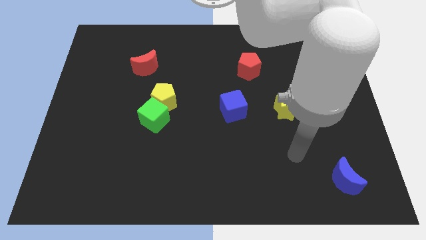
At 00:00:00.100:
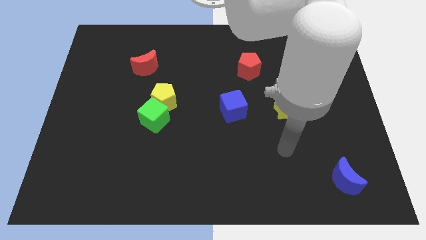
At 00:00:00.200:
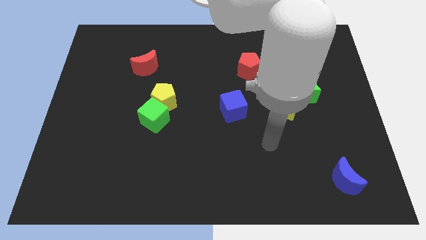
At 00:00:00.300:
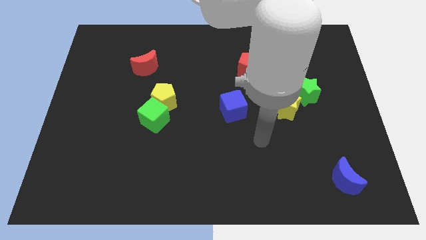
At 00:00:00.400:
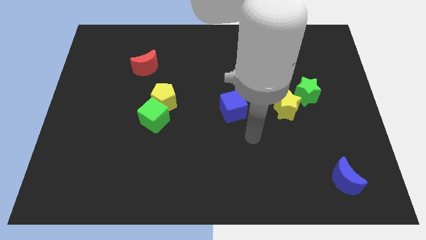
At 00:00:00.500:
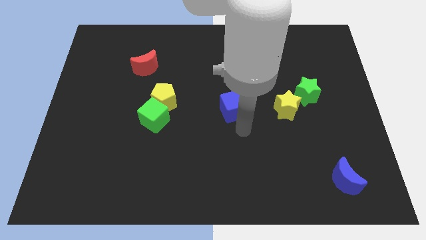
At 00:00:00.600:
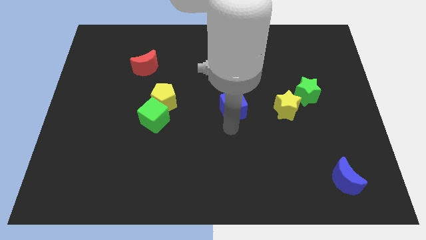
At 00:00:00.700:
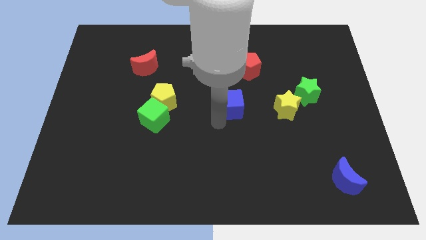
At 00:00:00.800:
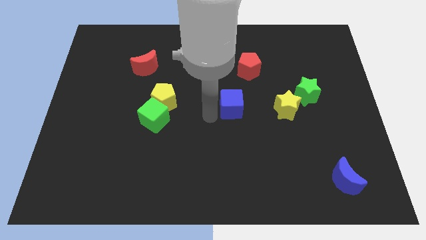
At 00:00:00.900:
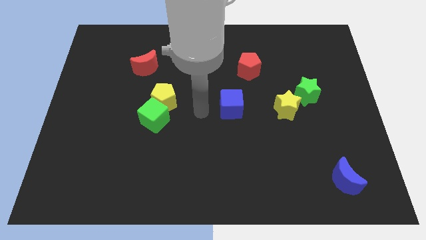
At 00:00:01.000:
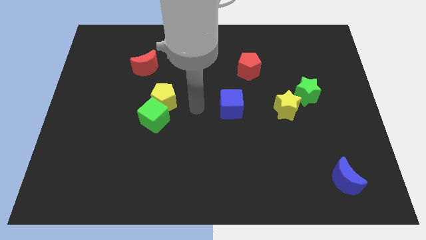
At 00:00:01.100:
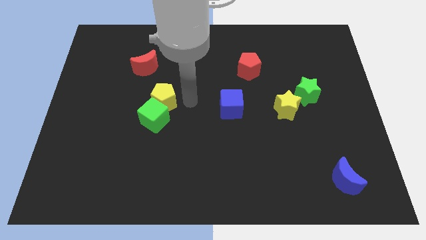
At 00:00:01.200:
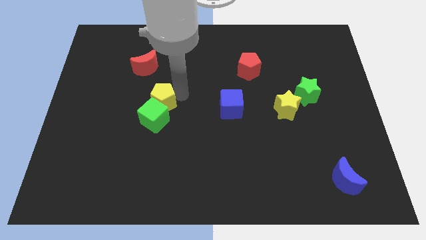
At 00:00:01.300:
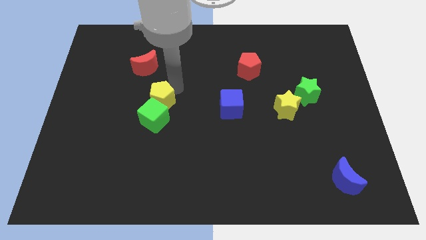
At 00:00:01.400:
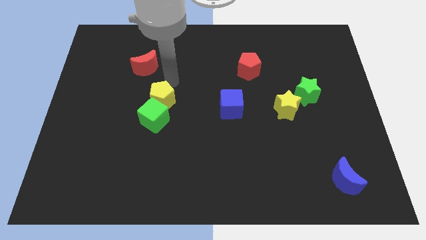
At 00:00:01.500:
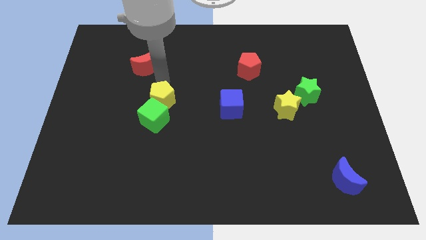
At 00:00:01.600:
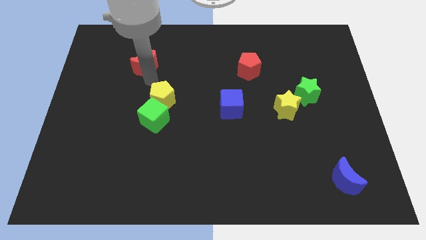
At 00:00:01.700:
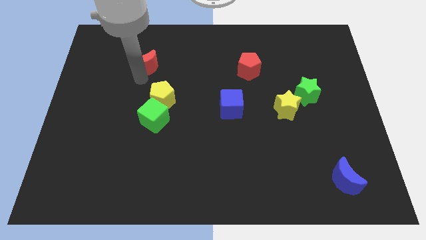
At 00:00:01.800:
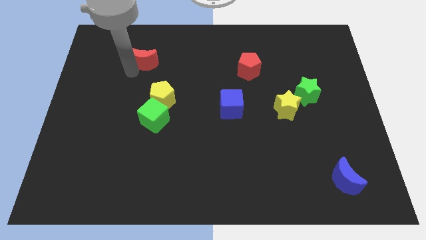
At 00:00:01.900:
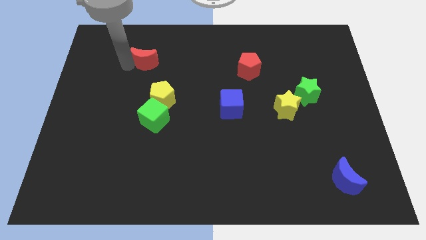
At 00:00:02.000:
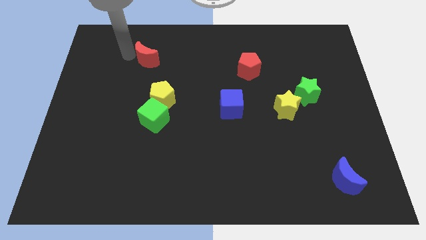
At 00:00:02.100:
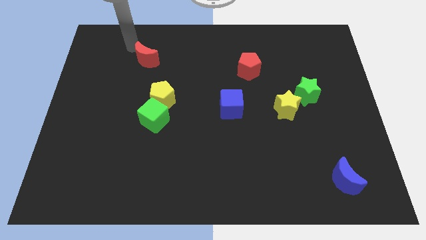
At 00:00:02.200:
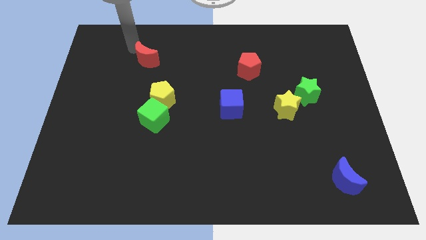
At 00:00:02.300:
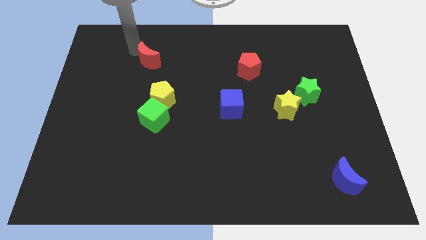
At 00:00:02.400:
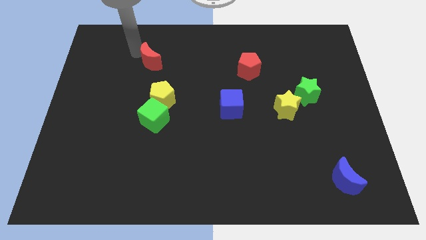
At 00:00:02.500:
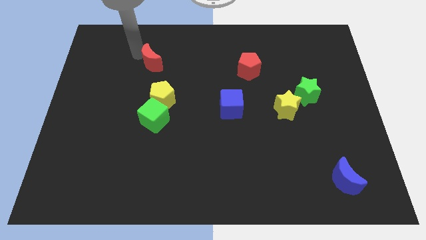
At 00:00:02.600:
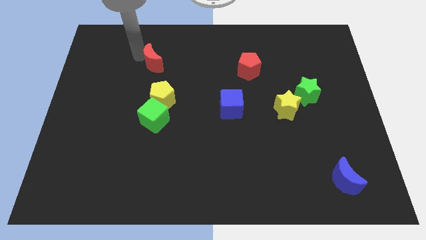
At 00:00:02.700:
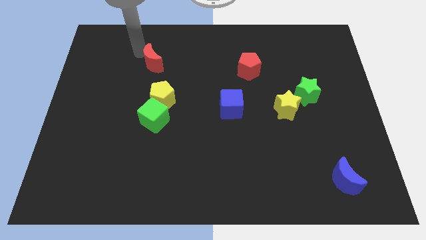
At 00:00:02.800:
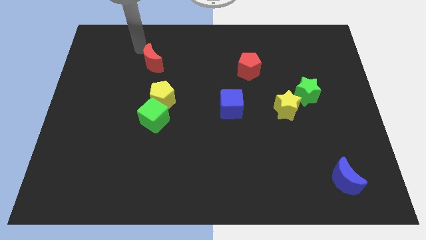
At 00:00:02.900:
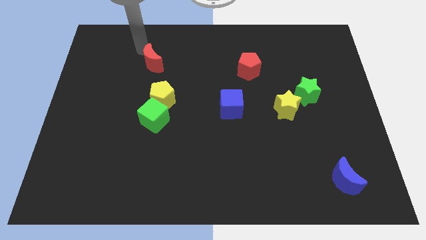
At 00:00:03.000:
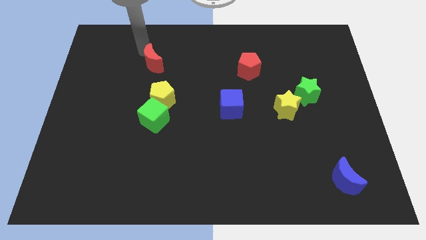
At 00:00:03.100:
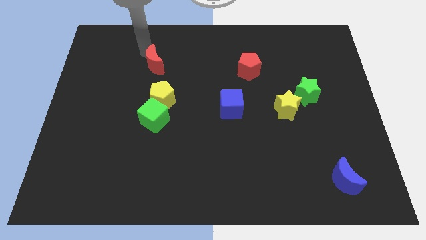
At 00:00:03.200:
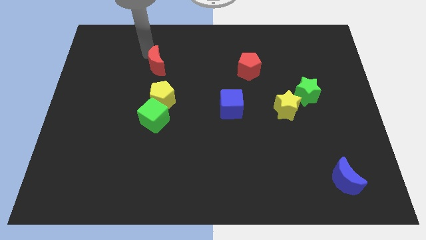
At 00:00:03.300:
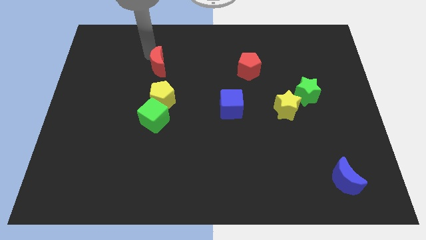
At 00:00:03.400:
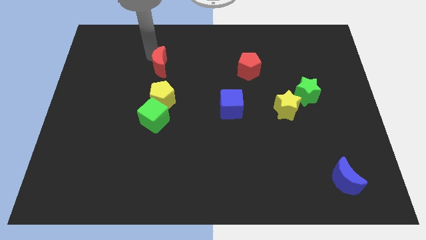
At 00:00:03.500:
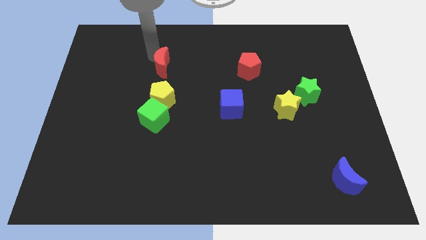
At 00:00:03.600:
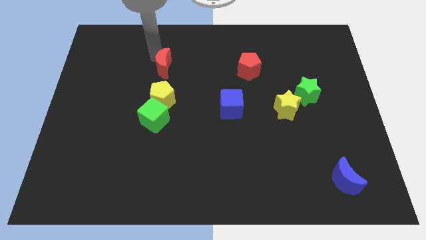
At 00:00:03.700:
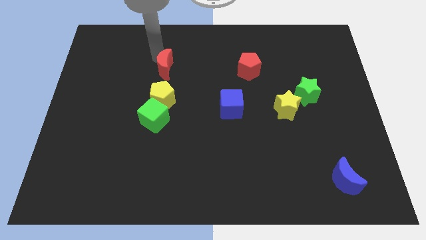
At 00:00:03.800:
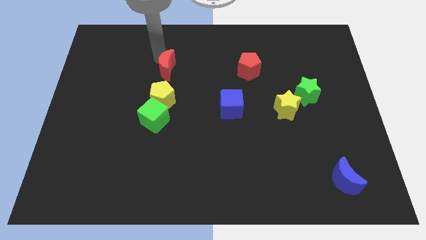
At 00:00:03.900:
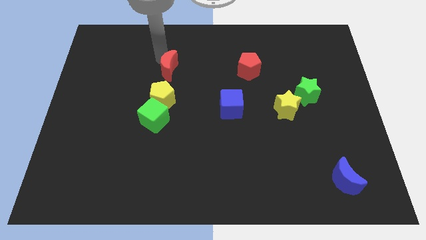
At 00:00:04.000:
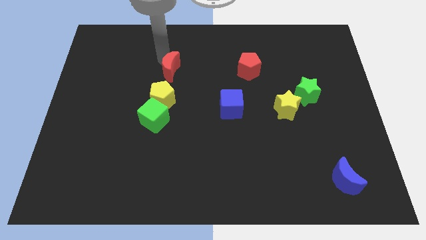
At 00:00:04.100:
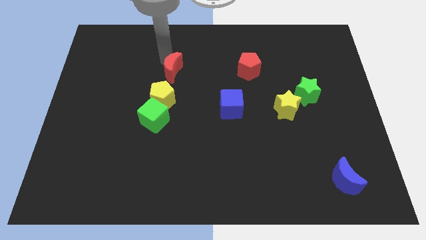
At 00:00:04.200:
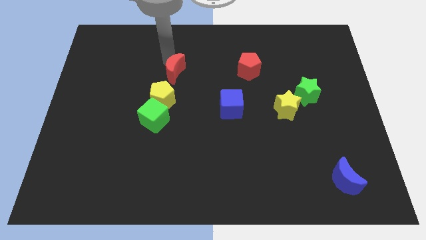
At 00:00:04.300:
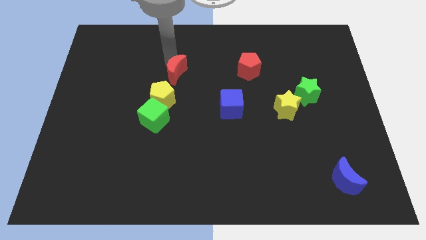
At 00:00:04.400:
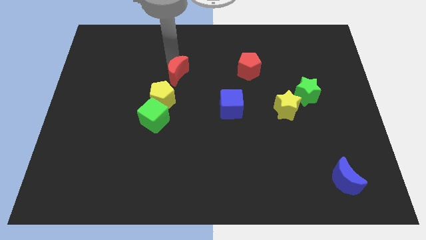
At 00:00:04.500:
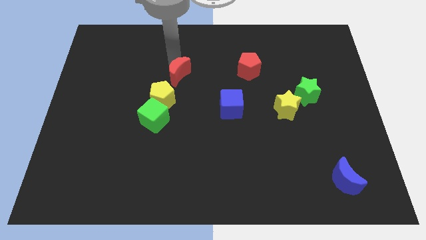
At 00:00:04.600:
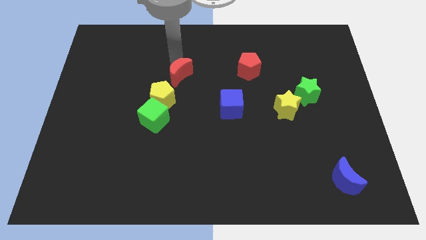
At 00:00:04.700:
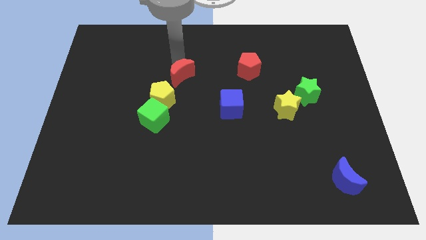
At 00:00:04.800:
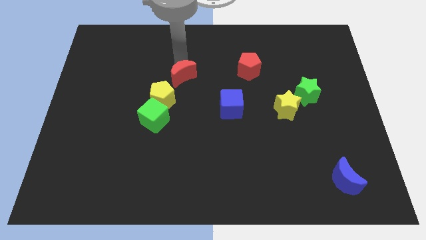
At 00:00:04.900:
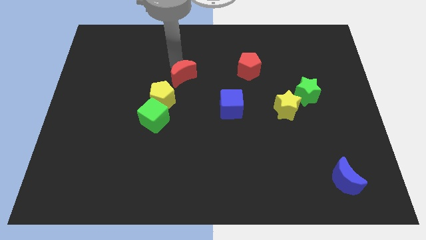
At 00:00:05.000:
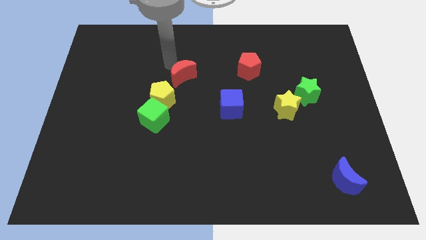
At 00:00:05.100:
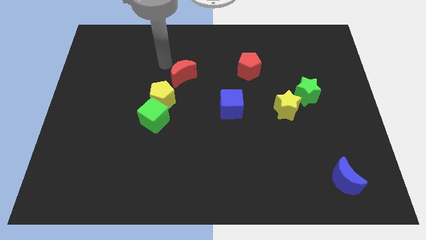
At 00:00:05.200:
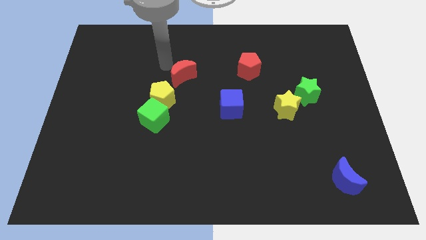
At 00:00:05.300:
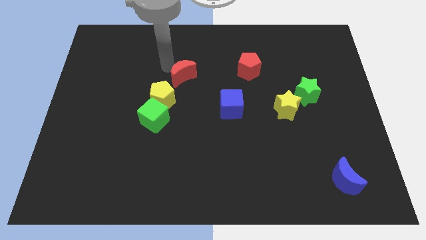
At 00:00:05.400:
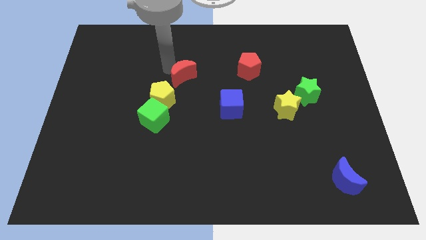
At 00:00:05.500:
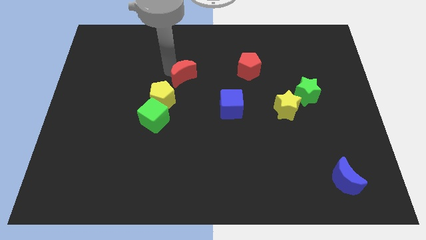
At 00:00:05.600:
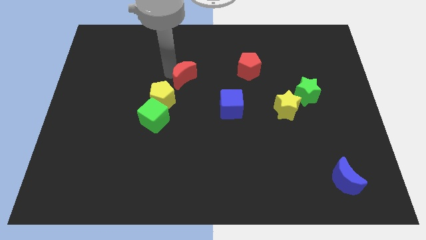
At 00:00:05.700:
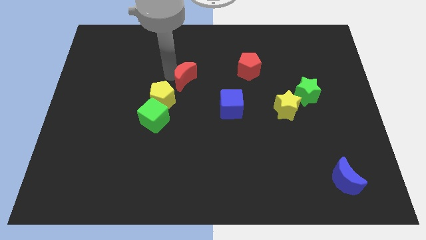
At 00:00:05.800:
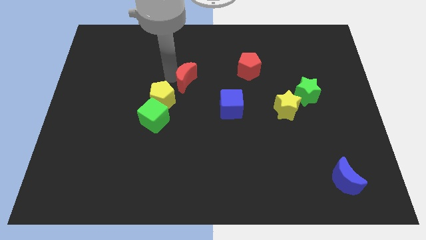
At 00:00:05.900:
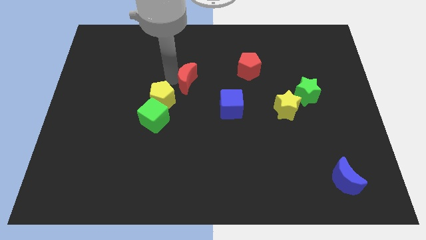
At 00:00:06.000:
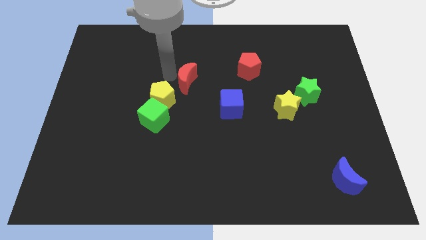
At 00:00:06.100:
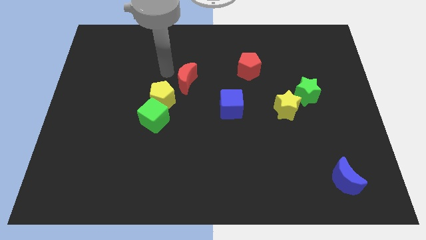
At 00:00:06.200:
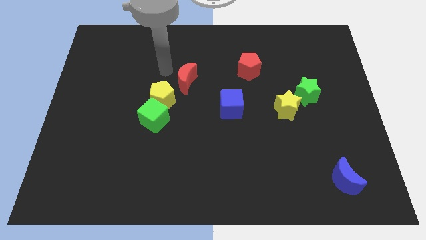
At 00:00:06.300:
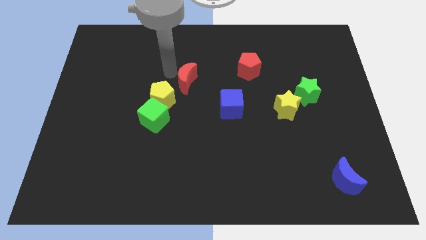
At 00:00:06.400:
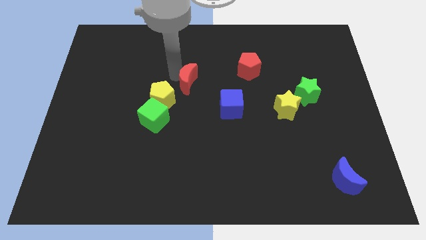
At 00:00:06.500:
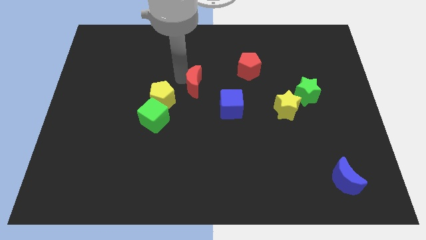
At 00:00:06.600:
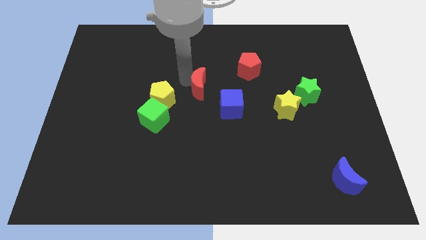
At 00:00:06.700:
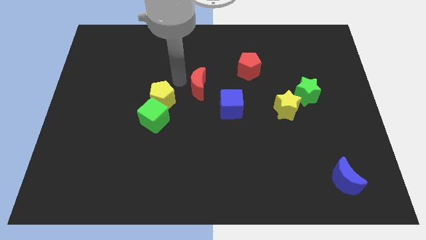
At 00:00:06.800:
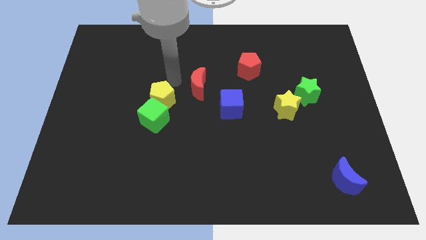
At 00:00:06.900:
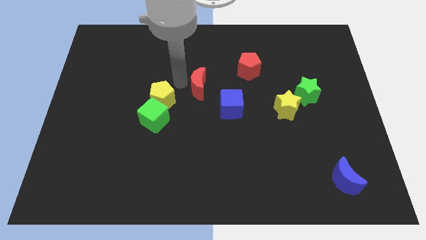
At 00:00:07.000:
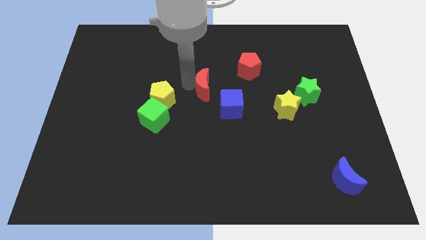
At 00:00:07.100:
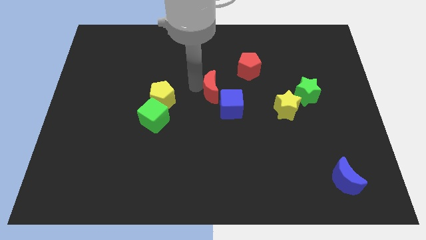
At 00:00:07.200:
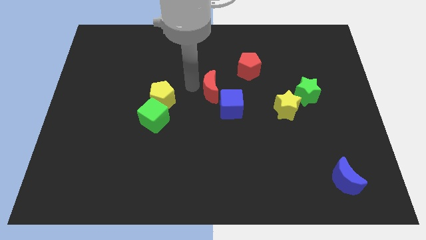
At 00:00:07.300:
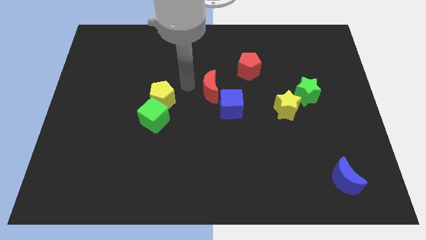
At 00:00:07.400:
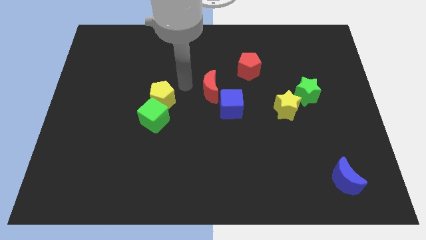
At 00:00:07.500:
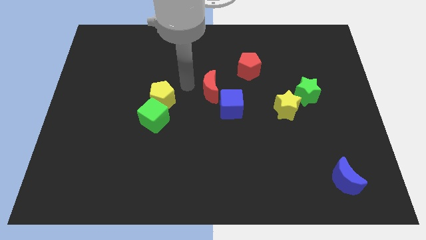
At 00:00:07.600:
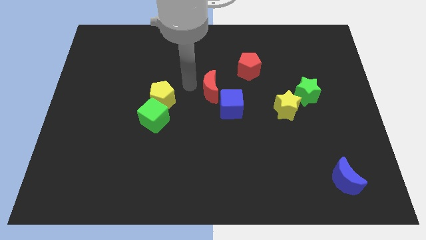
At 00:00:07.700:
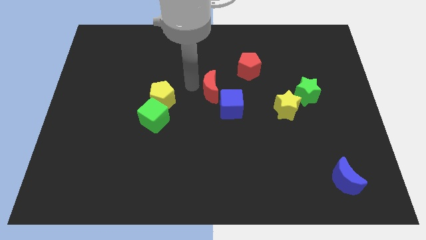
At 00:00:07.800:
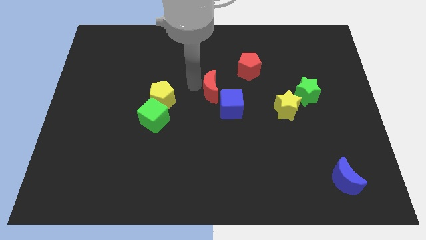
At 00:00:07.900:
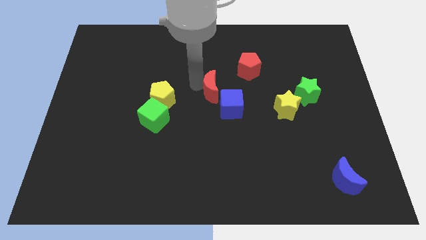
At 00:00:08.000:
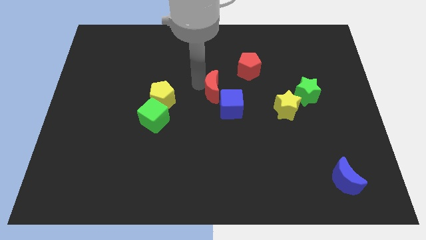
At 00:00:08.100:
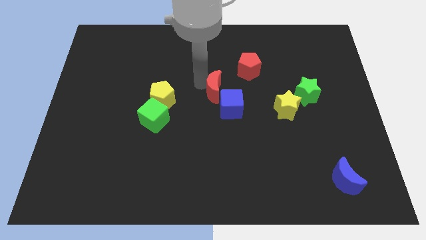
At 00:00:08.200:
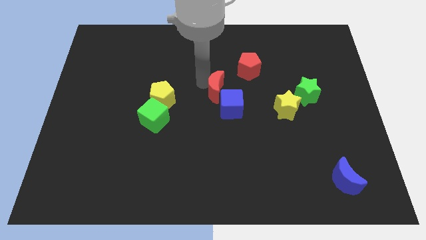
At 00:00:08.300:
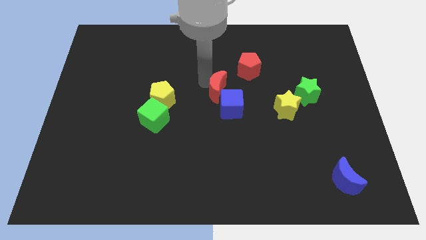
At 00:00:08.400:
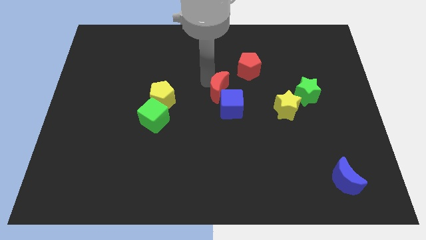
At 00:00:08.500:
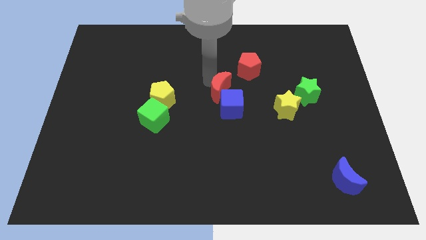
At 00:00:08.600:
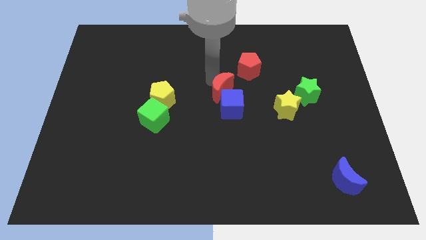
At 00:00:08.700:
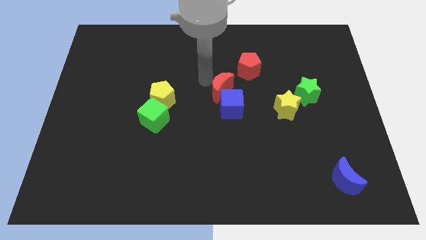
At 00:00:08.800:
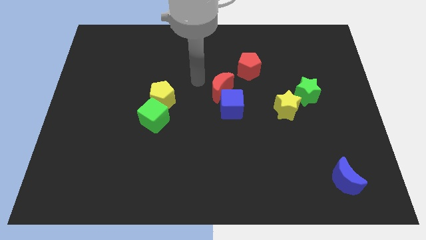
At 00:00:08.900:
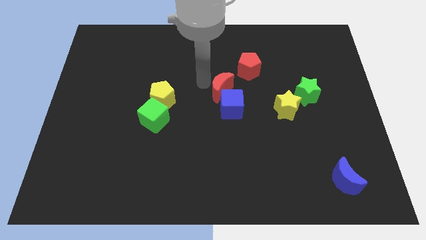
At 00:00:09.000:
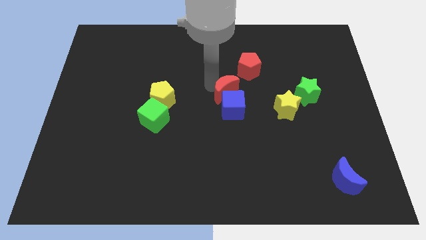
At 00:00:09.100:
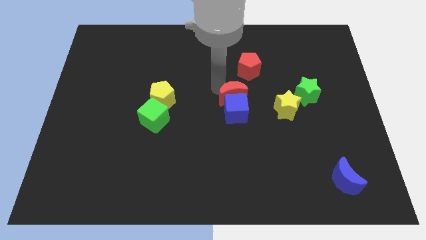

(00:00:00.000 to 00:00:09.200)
push the red moon to the bottom of the red pentagon
